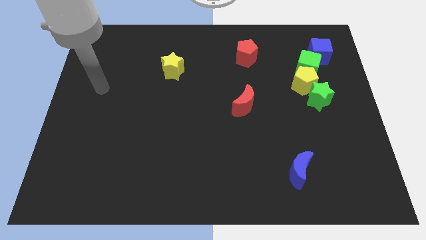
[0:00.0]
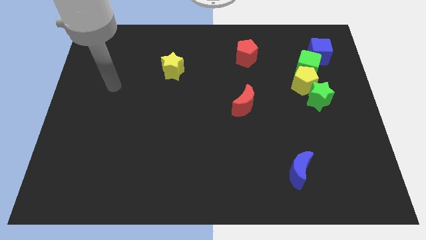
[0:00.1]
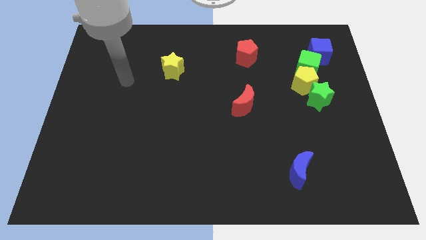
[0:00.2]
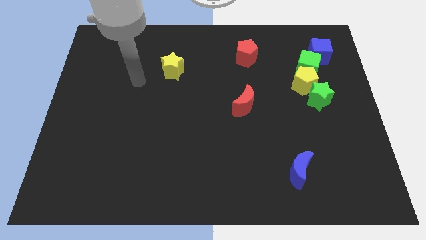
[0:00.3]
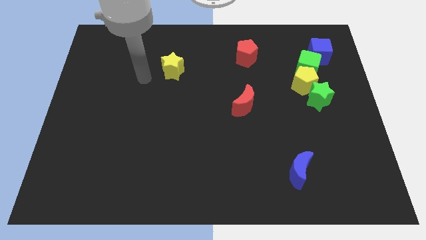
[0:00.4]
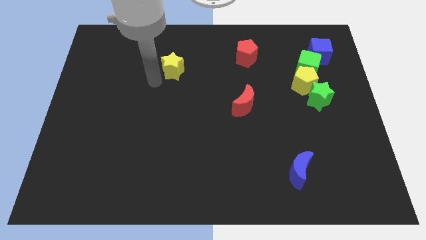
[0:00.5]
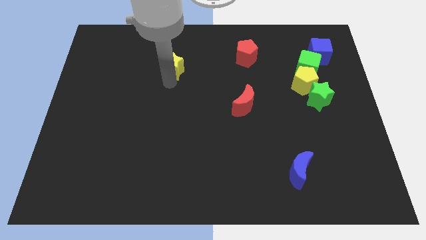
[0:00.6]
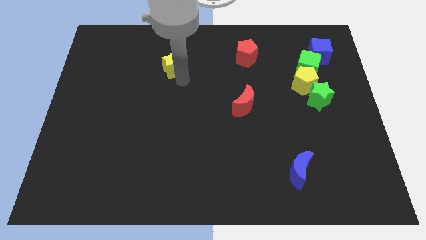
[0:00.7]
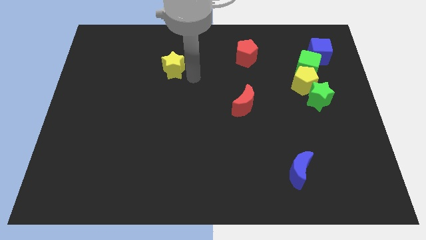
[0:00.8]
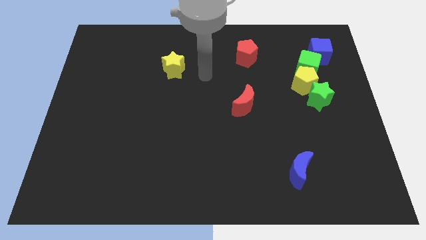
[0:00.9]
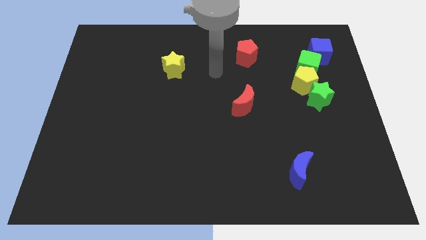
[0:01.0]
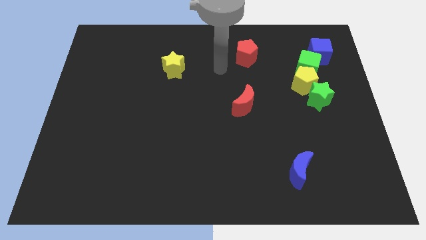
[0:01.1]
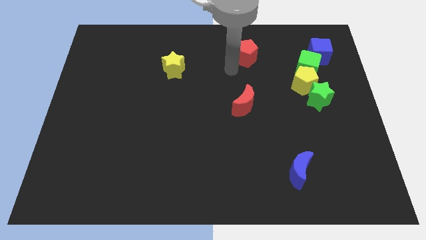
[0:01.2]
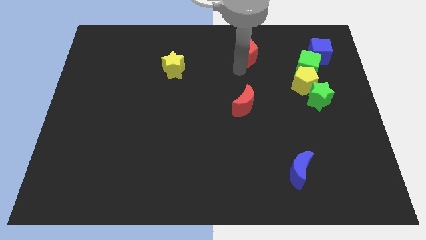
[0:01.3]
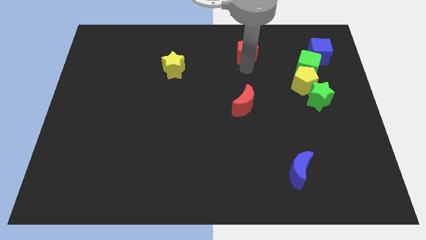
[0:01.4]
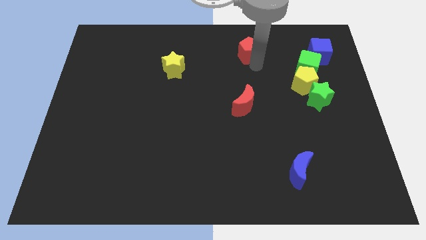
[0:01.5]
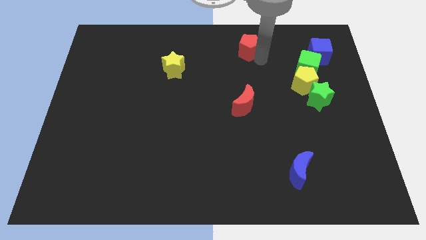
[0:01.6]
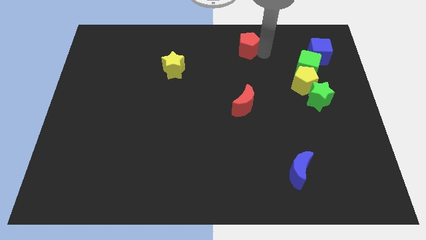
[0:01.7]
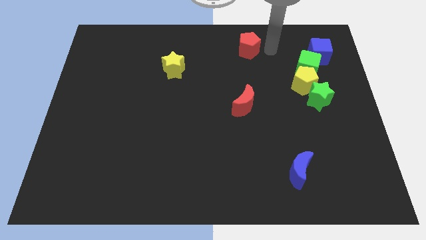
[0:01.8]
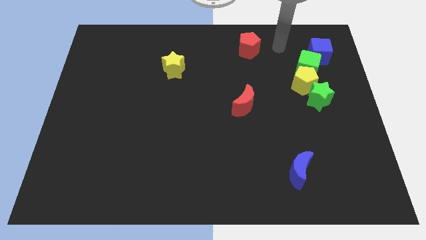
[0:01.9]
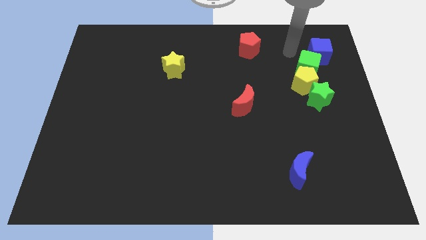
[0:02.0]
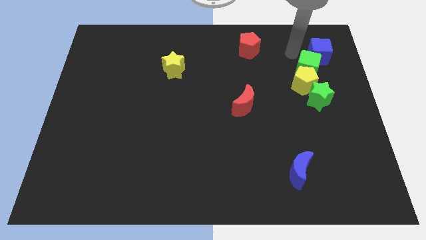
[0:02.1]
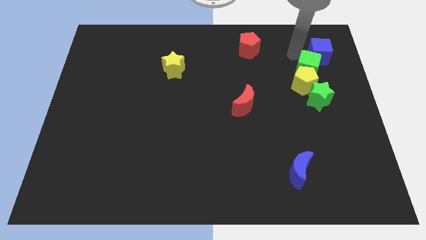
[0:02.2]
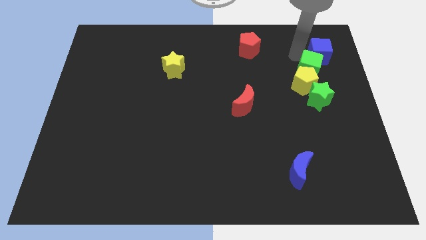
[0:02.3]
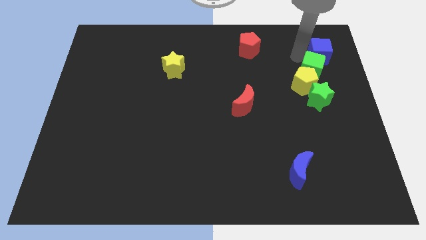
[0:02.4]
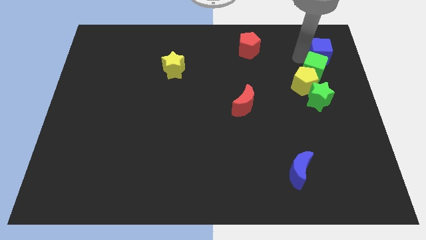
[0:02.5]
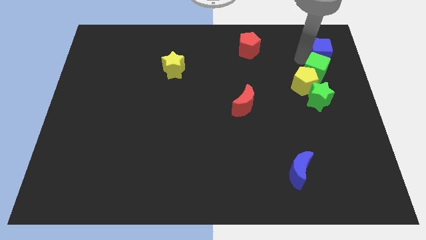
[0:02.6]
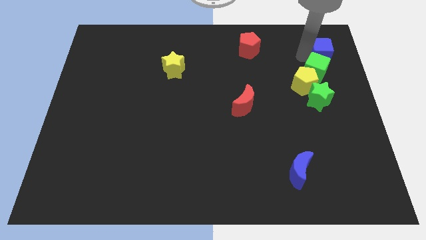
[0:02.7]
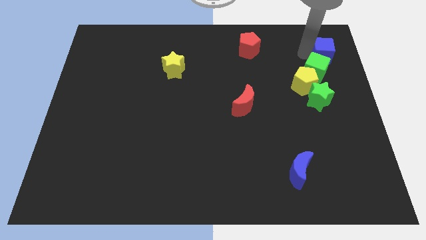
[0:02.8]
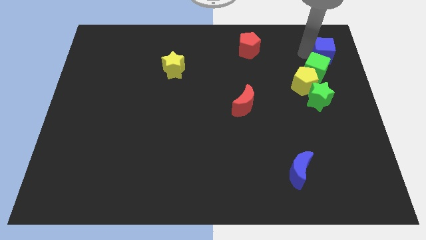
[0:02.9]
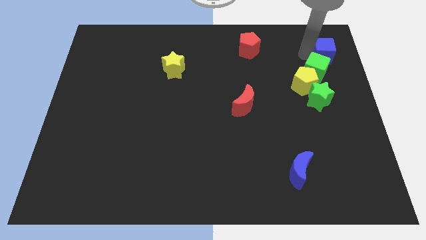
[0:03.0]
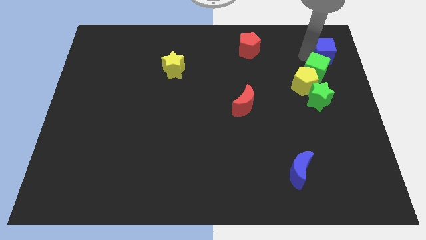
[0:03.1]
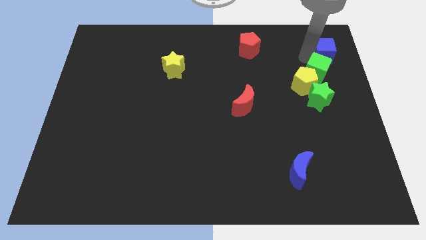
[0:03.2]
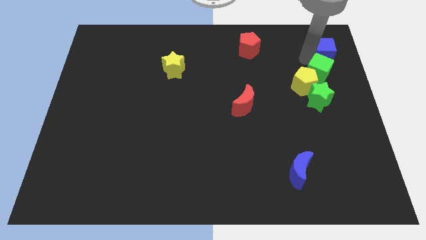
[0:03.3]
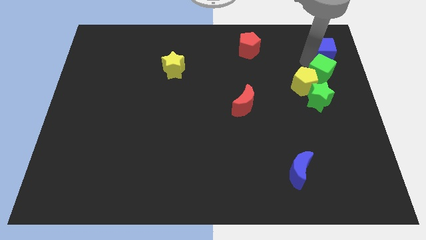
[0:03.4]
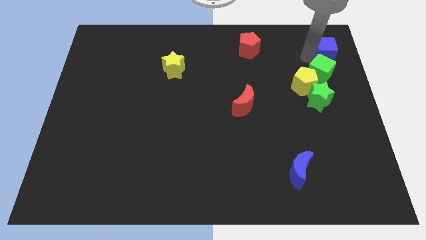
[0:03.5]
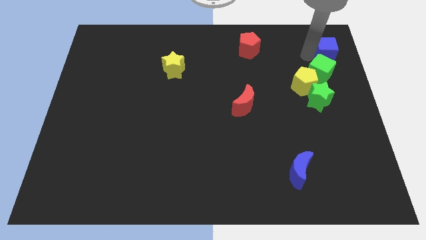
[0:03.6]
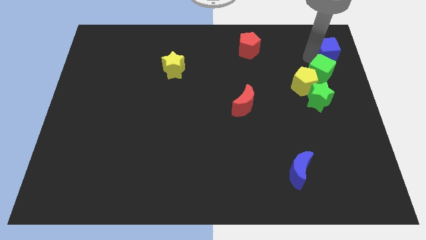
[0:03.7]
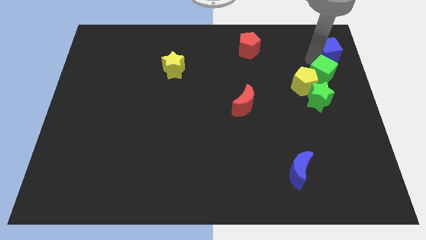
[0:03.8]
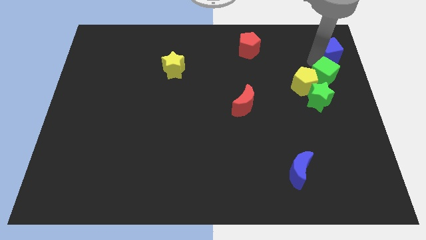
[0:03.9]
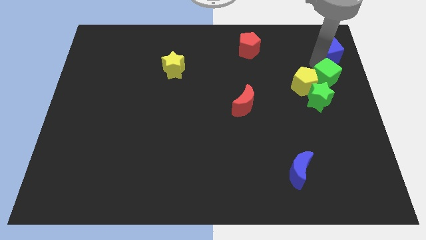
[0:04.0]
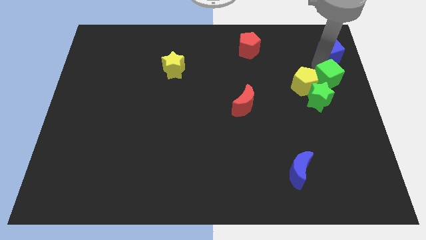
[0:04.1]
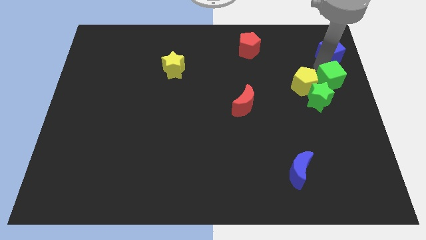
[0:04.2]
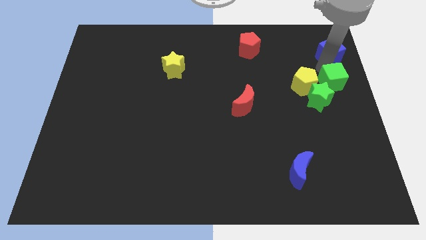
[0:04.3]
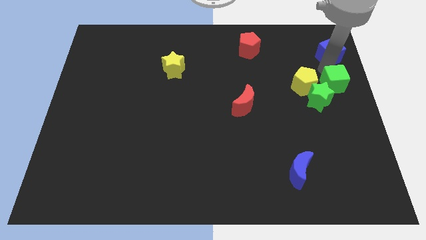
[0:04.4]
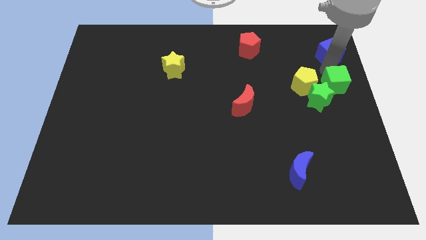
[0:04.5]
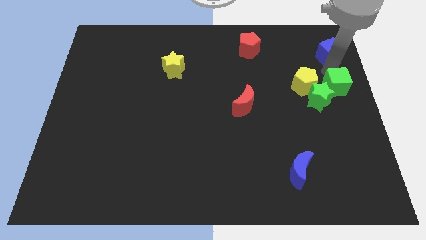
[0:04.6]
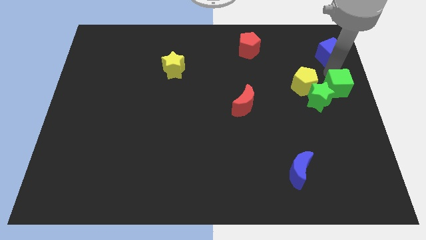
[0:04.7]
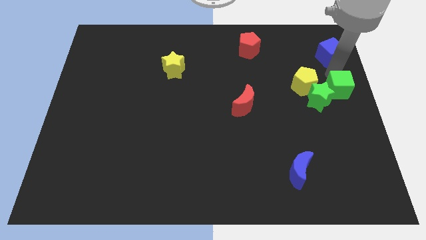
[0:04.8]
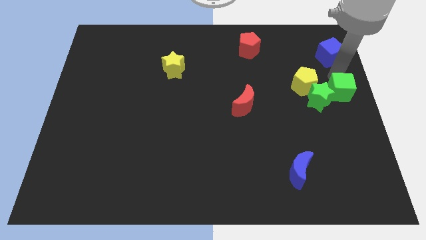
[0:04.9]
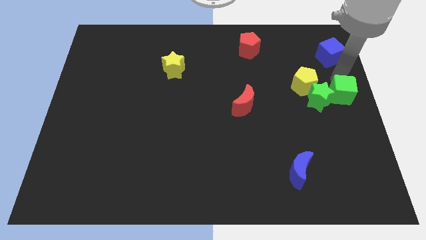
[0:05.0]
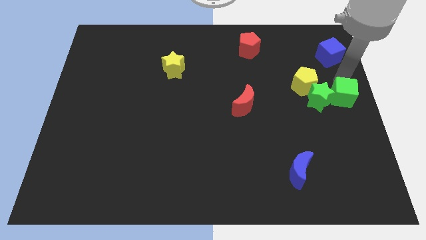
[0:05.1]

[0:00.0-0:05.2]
slide the green cube a little bit down

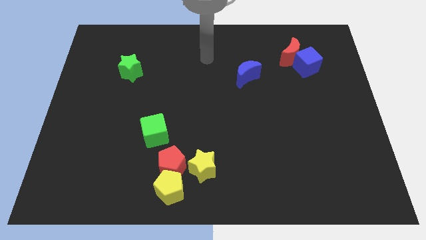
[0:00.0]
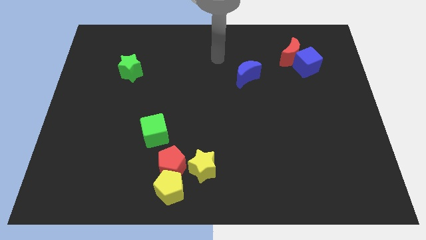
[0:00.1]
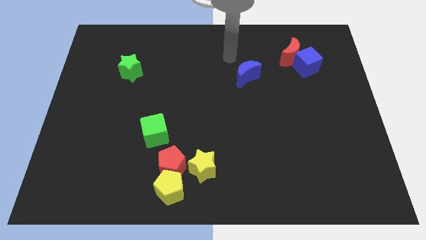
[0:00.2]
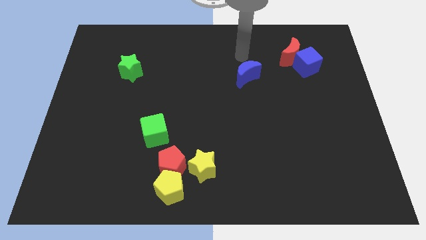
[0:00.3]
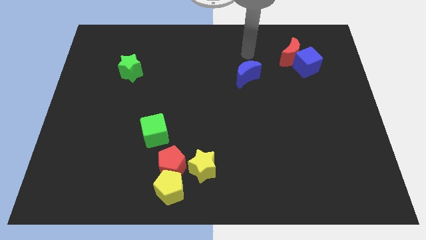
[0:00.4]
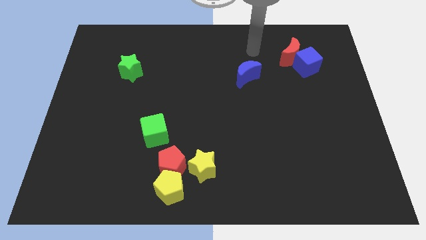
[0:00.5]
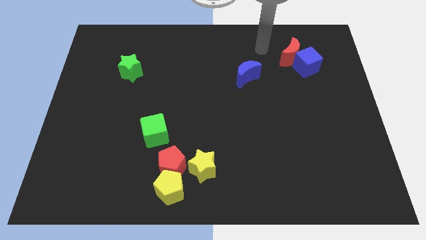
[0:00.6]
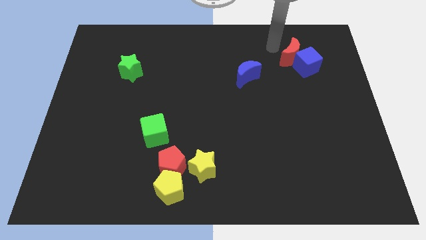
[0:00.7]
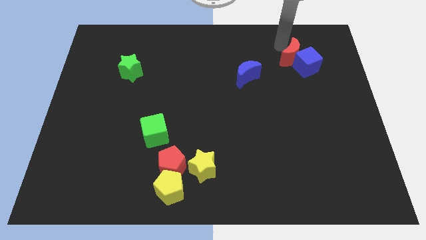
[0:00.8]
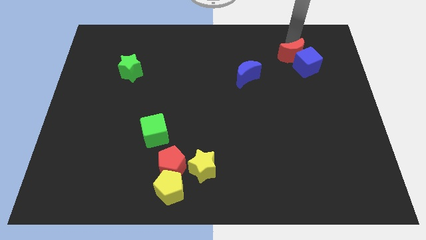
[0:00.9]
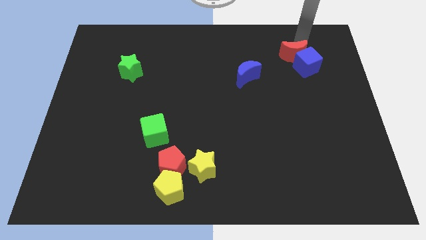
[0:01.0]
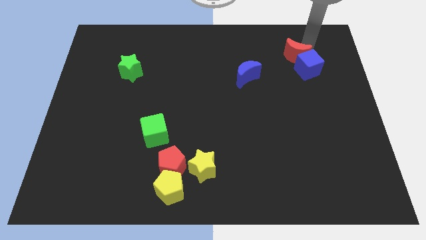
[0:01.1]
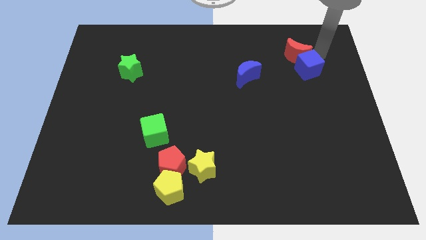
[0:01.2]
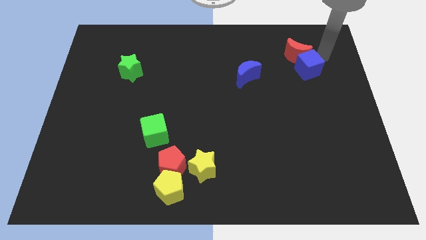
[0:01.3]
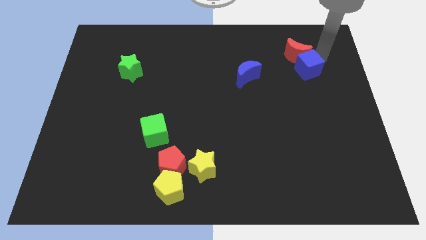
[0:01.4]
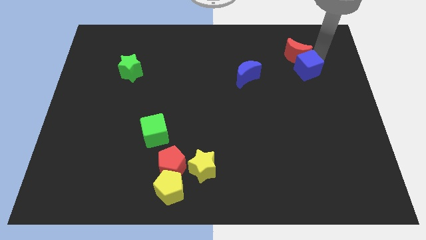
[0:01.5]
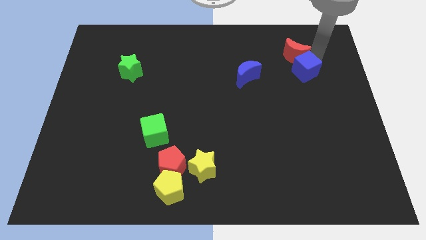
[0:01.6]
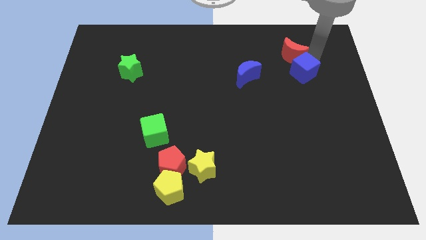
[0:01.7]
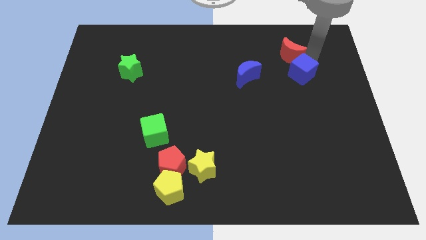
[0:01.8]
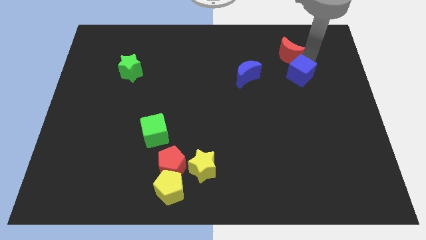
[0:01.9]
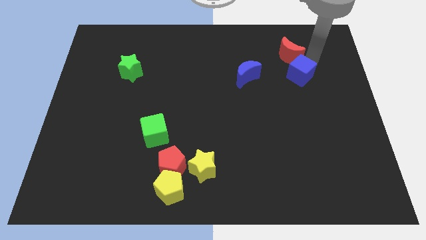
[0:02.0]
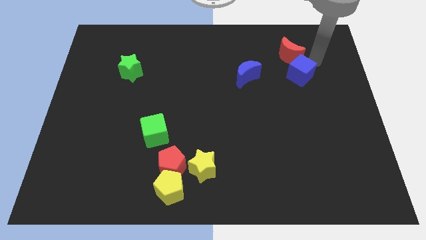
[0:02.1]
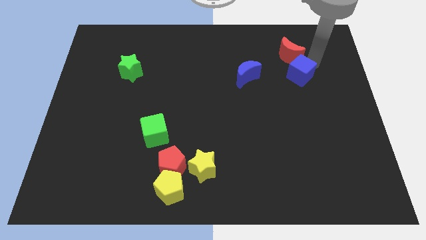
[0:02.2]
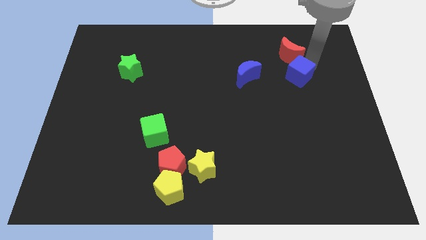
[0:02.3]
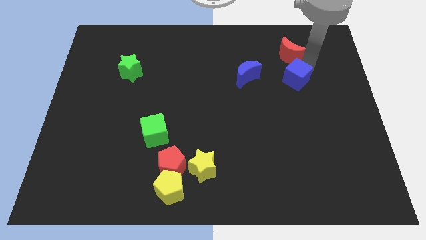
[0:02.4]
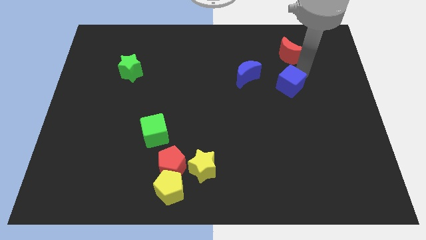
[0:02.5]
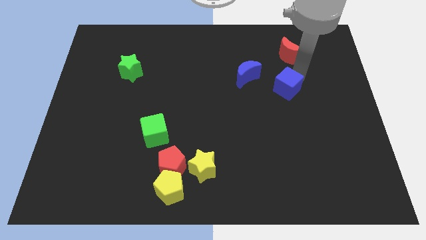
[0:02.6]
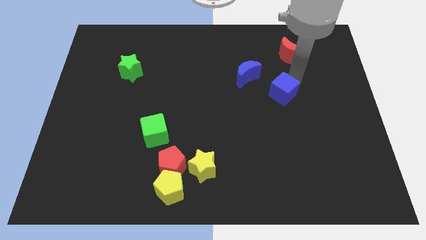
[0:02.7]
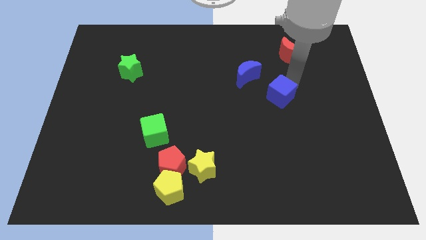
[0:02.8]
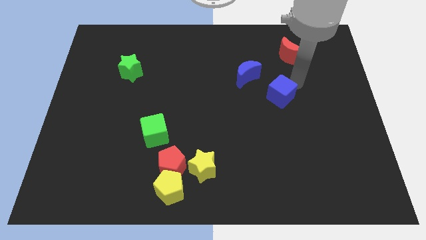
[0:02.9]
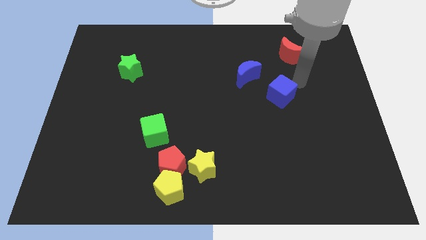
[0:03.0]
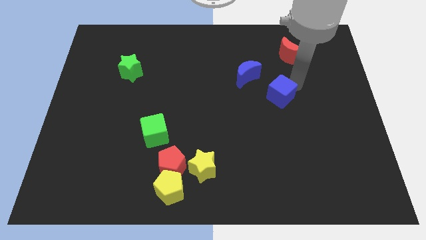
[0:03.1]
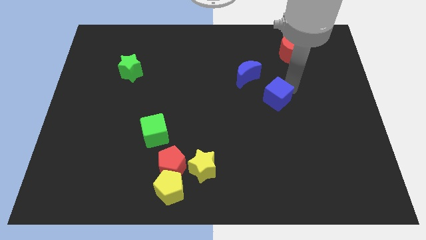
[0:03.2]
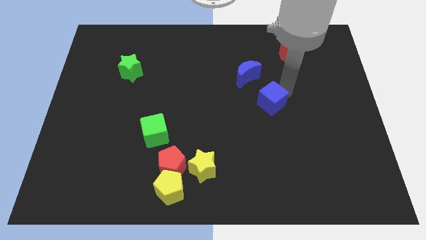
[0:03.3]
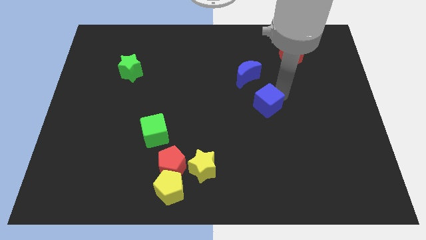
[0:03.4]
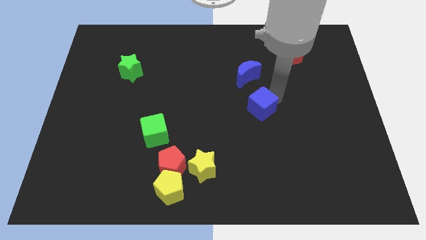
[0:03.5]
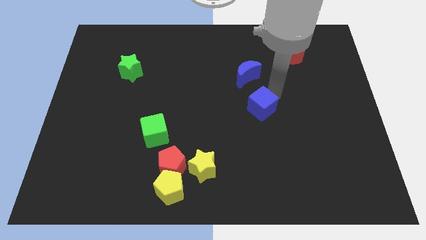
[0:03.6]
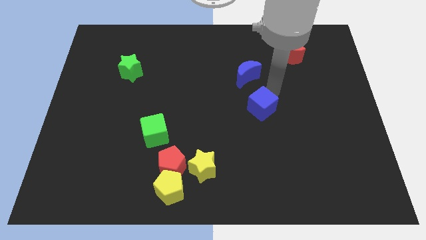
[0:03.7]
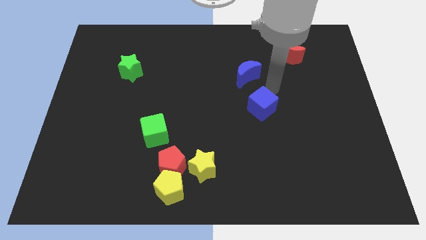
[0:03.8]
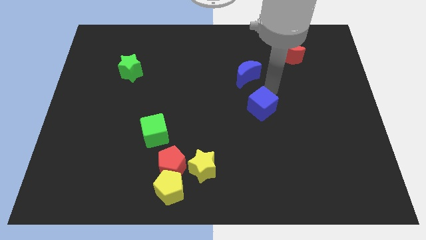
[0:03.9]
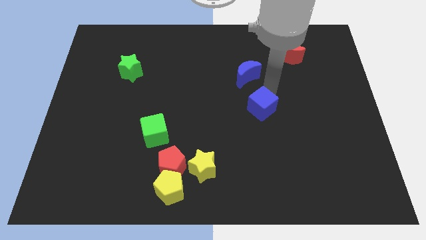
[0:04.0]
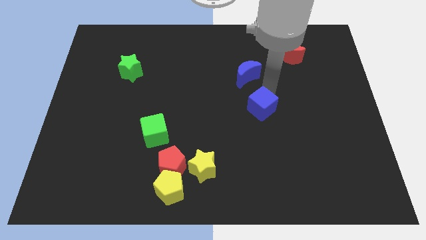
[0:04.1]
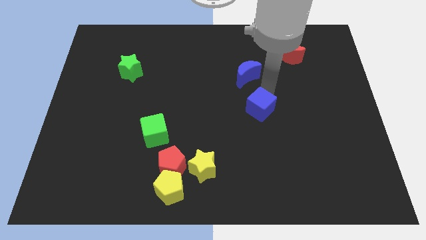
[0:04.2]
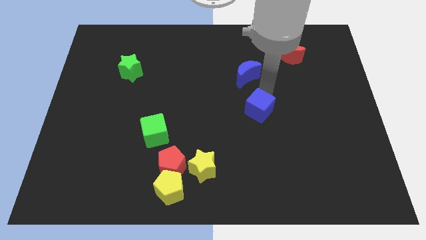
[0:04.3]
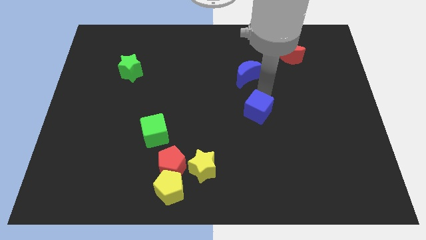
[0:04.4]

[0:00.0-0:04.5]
move the blue cube downwards and to the left diagonally
